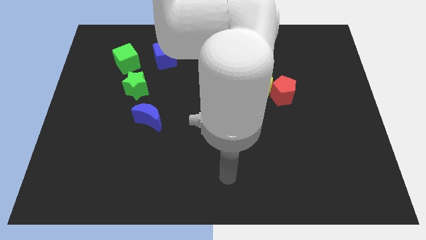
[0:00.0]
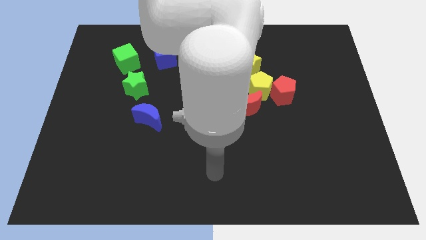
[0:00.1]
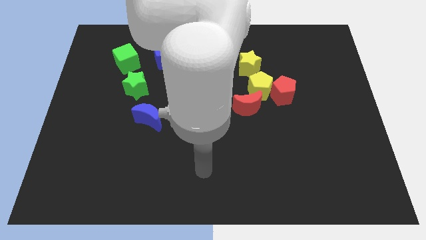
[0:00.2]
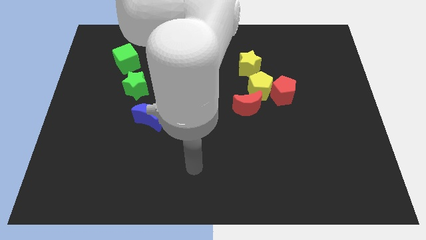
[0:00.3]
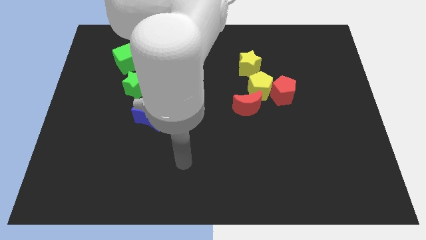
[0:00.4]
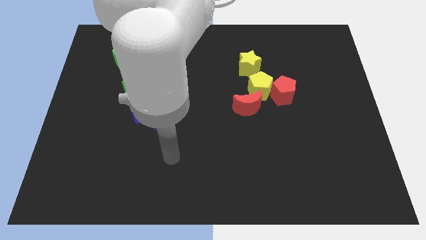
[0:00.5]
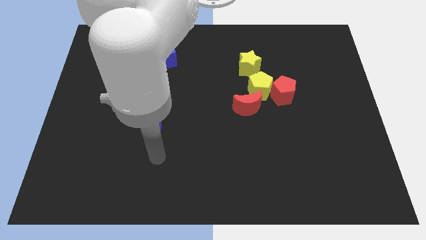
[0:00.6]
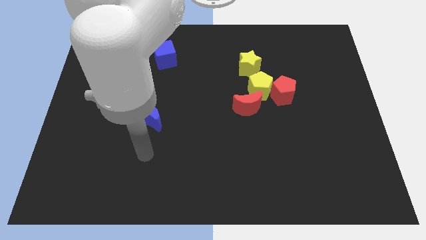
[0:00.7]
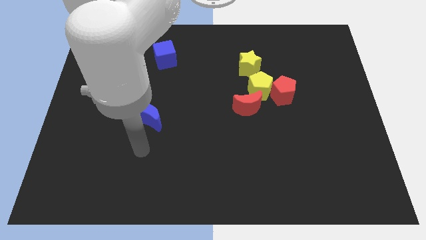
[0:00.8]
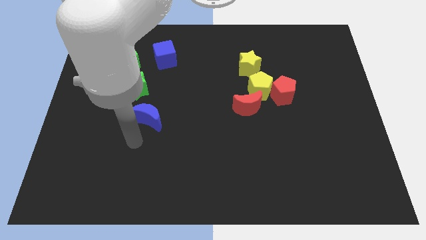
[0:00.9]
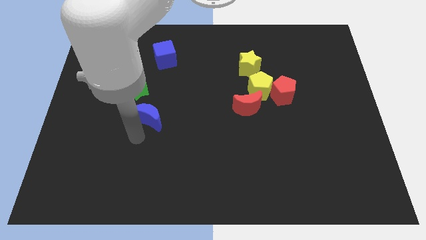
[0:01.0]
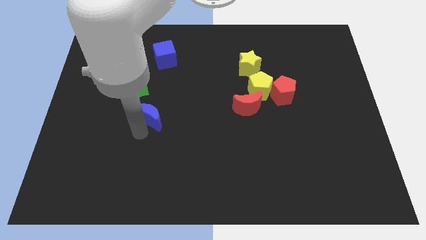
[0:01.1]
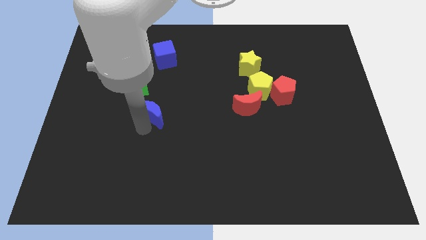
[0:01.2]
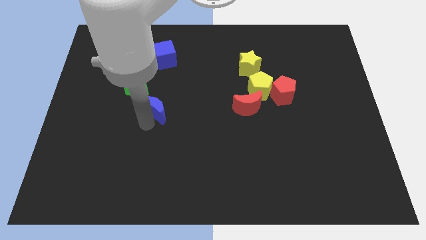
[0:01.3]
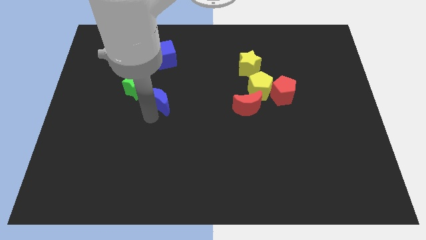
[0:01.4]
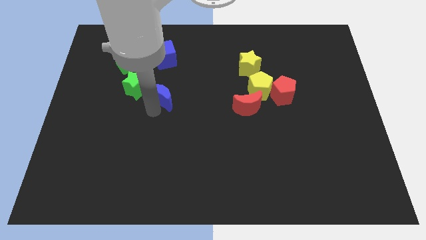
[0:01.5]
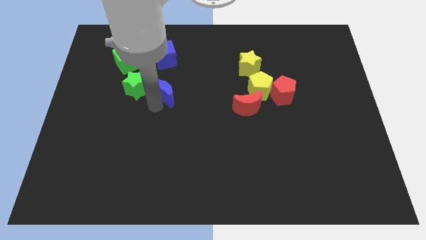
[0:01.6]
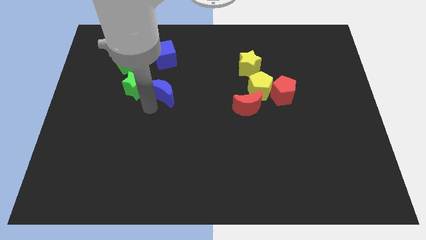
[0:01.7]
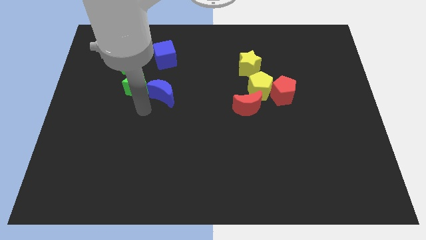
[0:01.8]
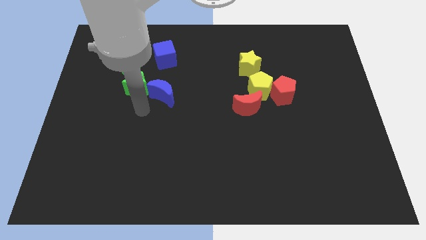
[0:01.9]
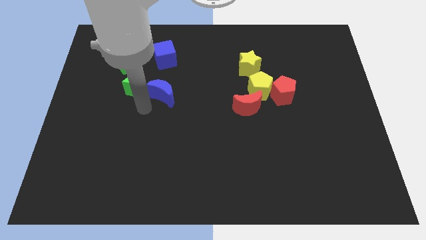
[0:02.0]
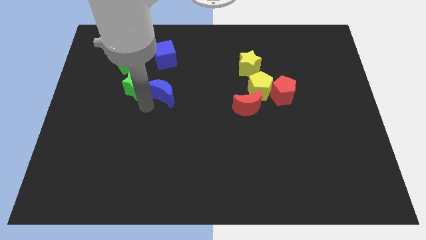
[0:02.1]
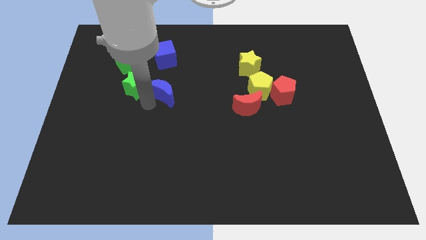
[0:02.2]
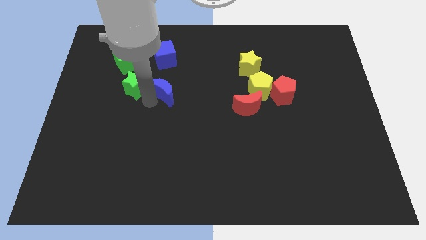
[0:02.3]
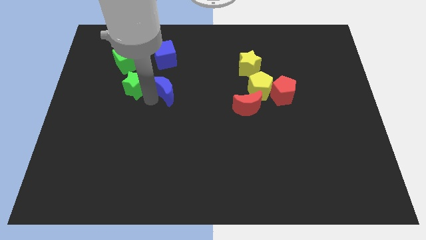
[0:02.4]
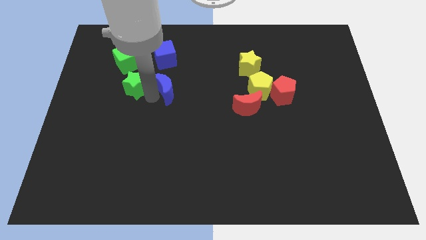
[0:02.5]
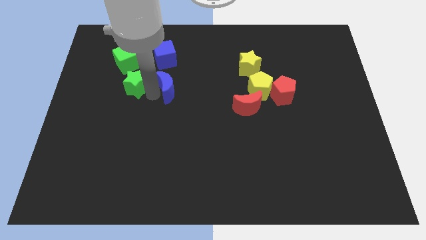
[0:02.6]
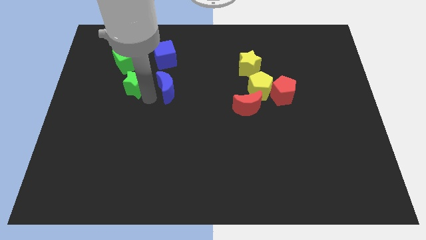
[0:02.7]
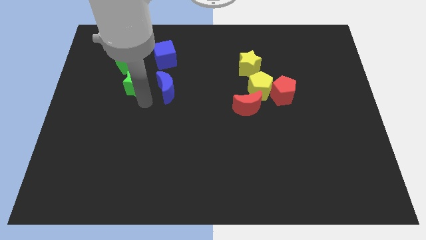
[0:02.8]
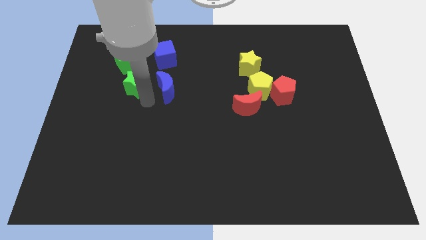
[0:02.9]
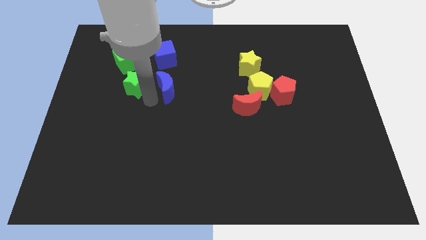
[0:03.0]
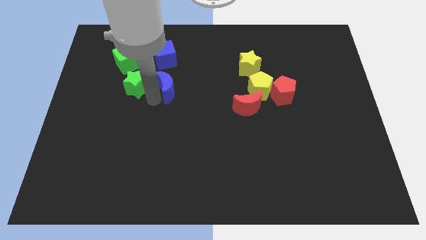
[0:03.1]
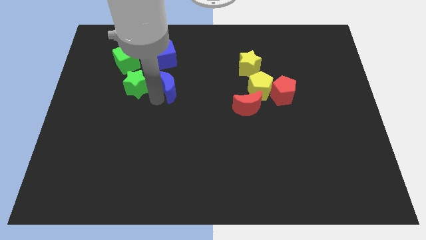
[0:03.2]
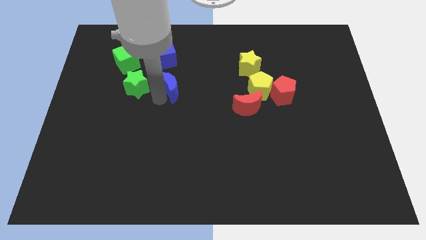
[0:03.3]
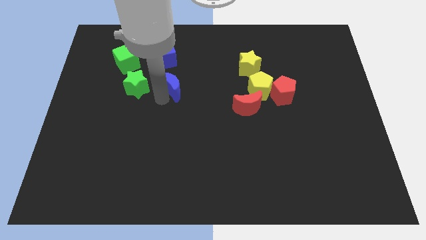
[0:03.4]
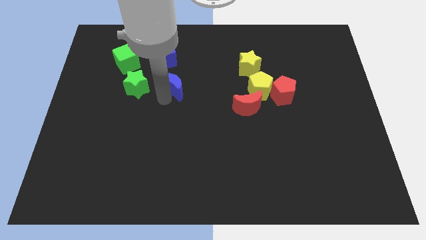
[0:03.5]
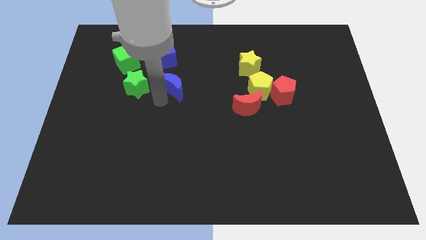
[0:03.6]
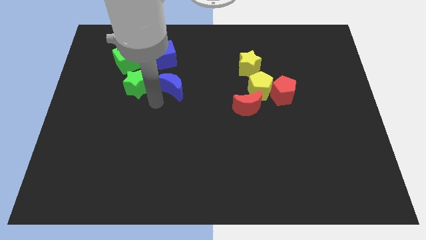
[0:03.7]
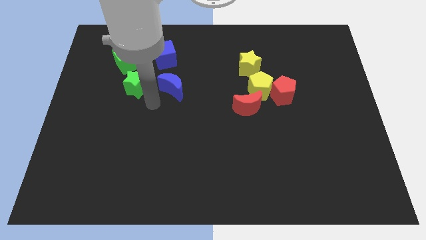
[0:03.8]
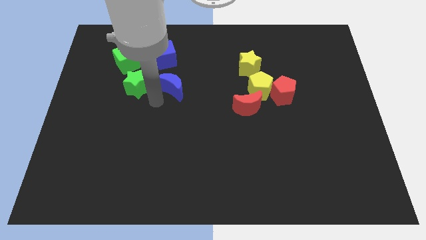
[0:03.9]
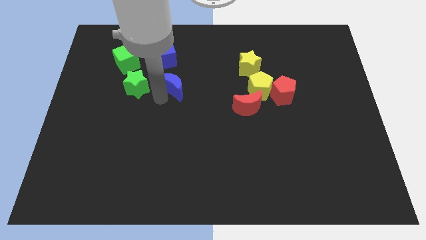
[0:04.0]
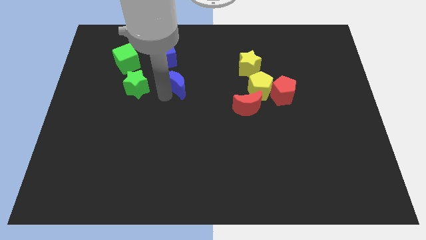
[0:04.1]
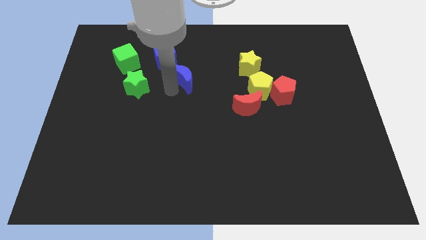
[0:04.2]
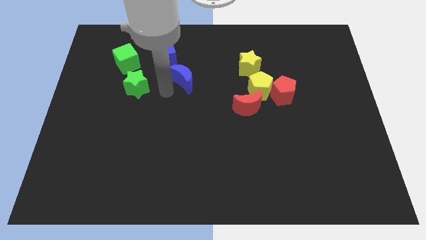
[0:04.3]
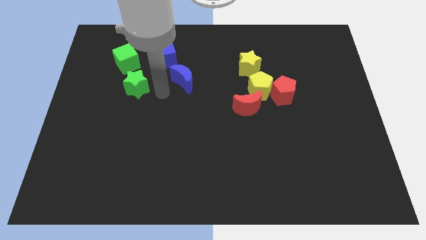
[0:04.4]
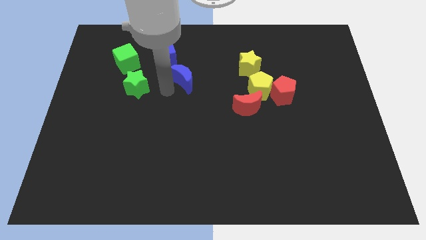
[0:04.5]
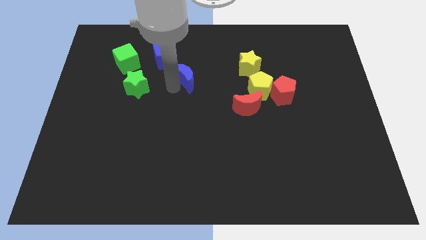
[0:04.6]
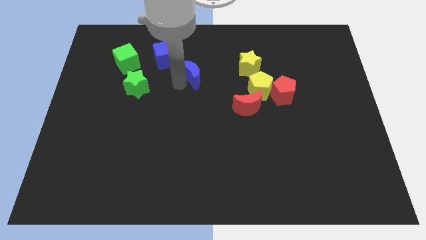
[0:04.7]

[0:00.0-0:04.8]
put the blue moon to the left of the yellow star

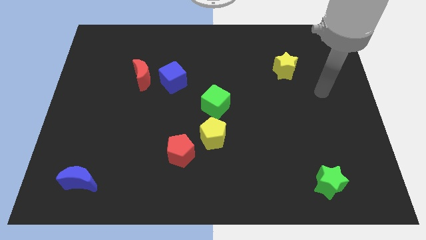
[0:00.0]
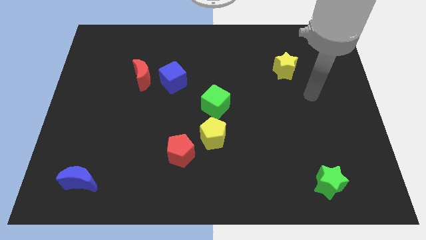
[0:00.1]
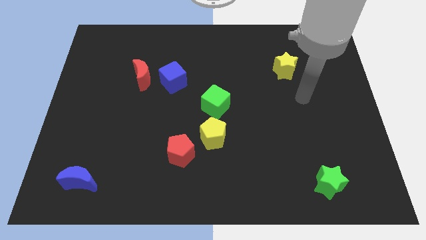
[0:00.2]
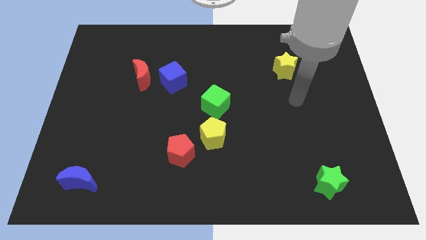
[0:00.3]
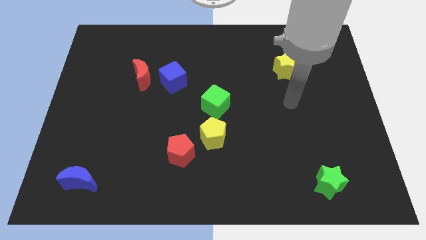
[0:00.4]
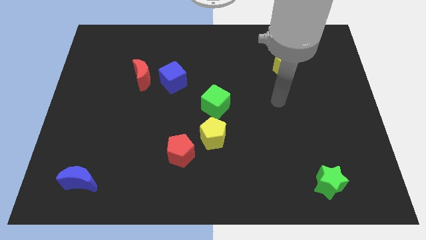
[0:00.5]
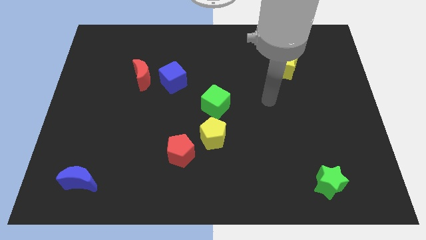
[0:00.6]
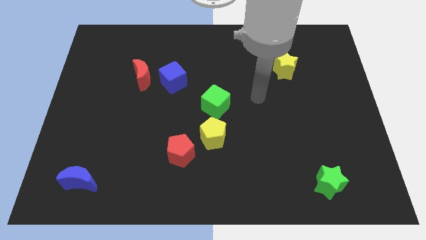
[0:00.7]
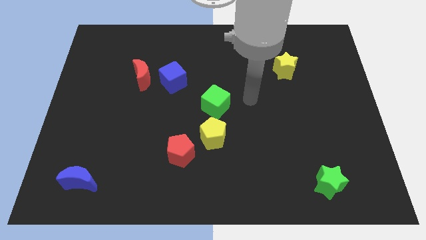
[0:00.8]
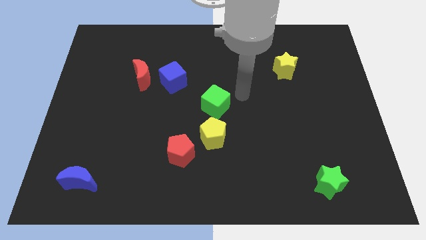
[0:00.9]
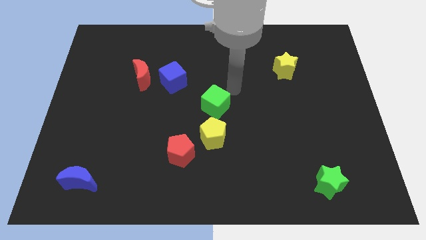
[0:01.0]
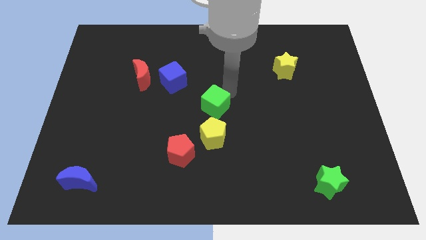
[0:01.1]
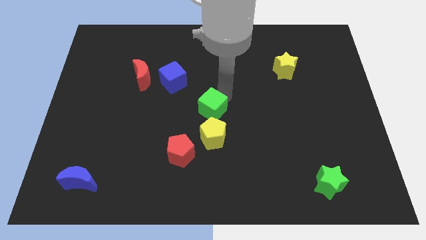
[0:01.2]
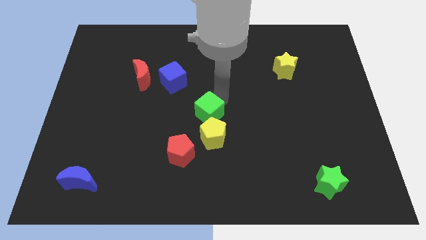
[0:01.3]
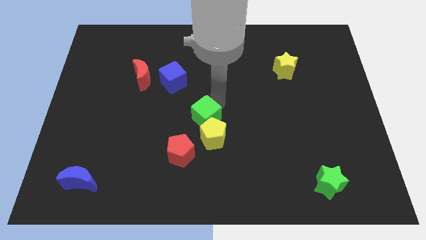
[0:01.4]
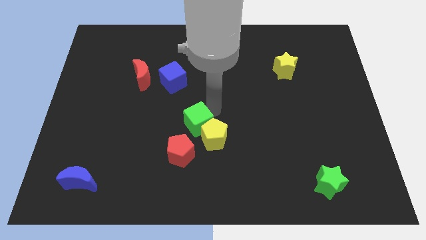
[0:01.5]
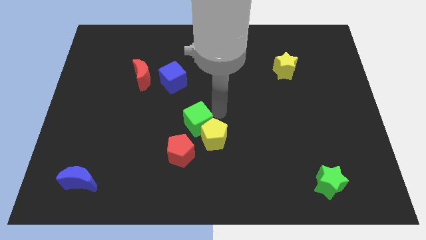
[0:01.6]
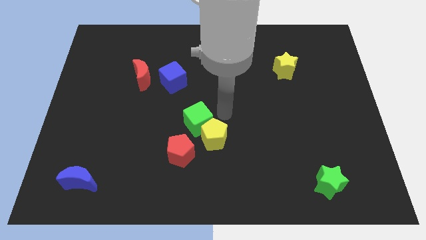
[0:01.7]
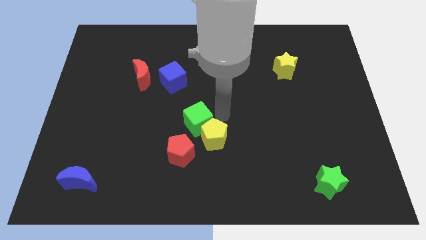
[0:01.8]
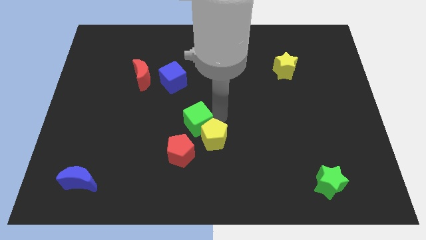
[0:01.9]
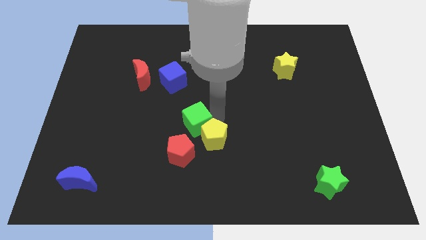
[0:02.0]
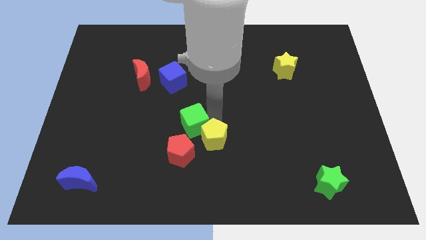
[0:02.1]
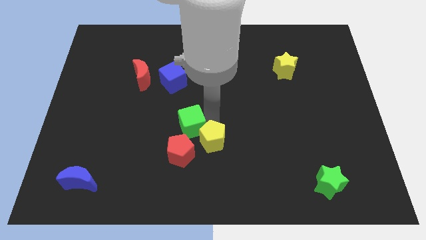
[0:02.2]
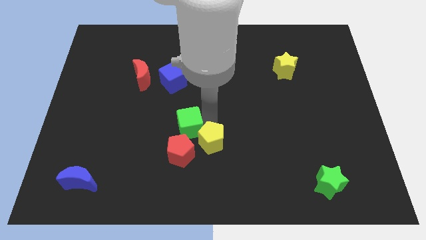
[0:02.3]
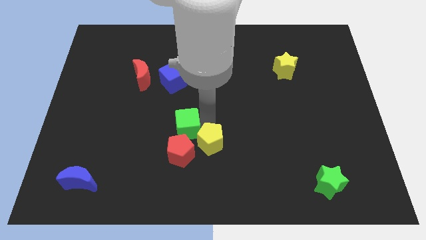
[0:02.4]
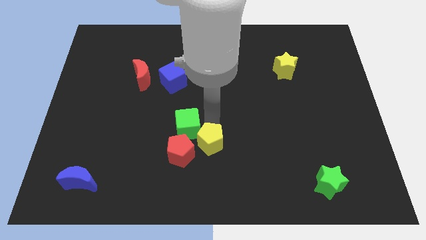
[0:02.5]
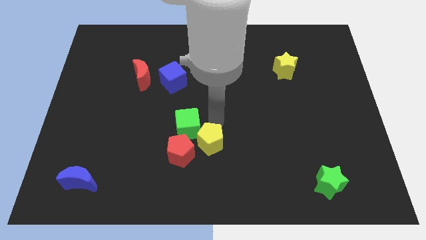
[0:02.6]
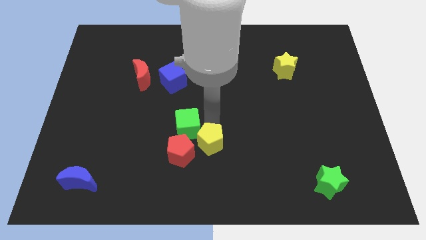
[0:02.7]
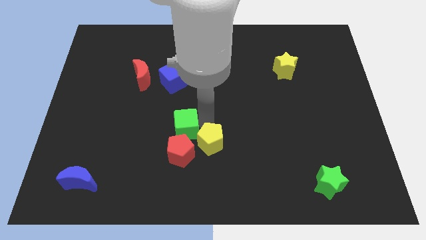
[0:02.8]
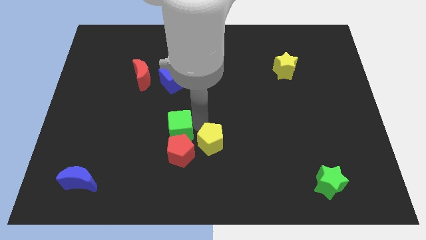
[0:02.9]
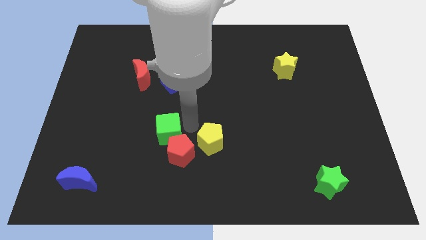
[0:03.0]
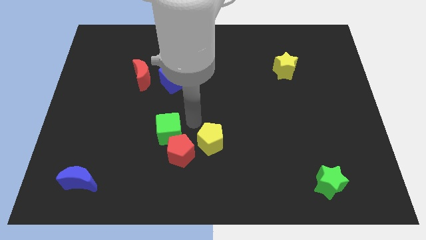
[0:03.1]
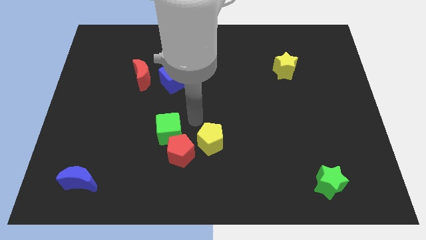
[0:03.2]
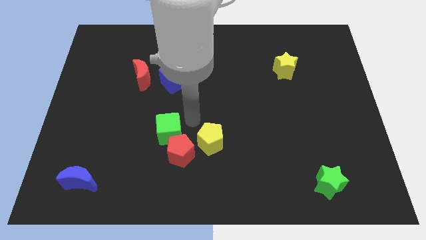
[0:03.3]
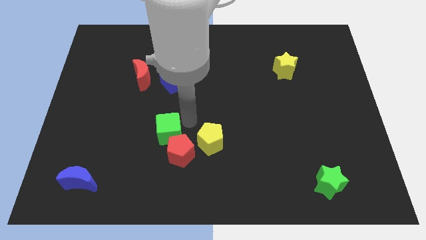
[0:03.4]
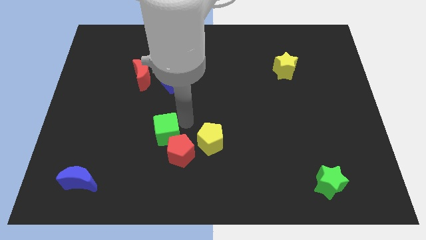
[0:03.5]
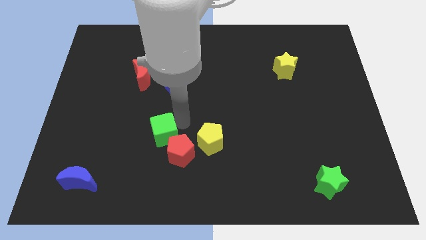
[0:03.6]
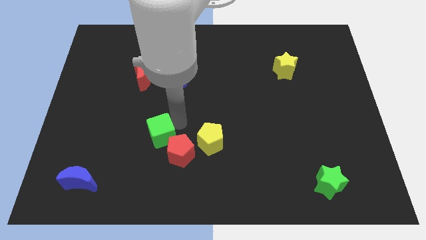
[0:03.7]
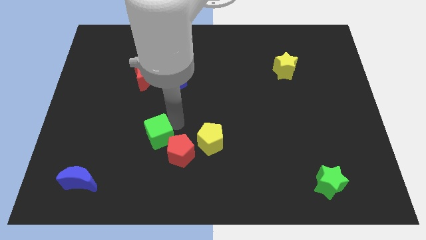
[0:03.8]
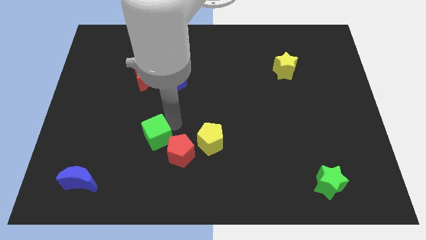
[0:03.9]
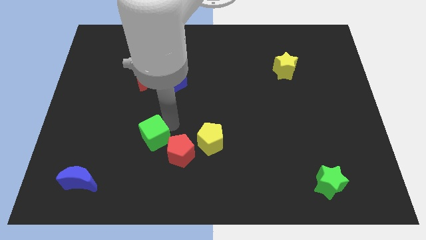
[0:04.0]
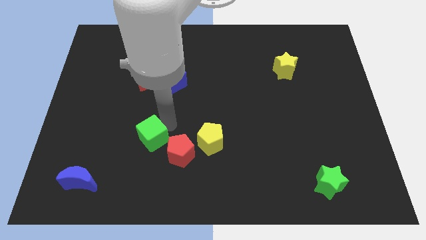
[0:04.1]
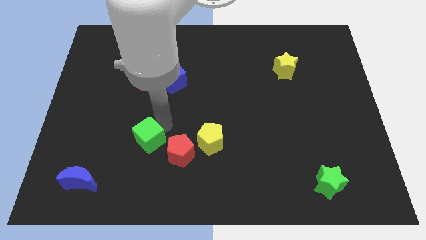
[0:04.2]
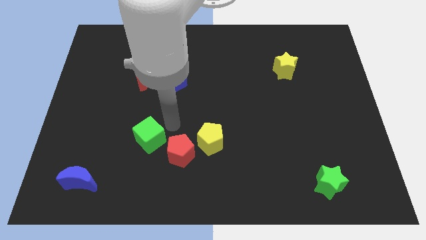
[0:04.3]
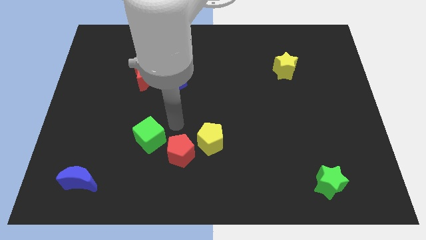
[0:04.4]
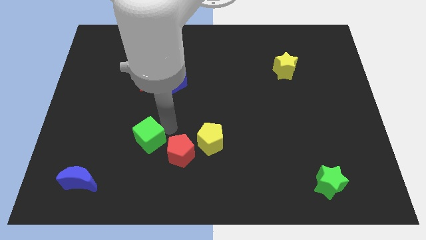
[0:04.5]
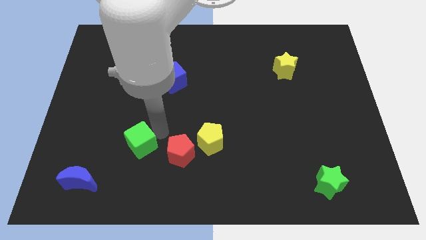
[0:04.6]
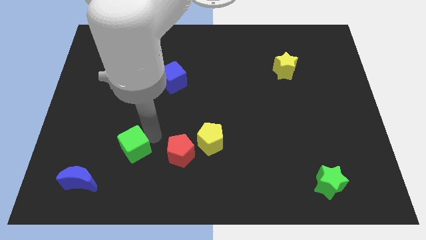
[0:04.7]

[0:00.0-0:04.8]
slide the green cube diagonally up and to the right of the blue moon
